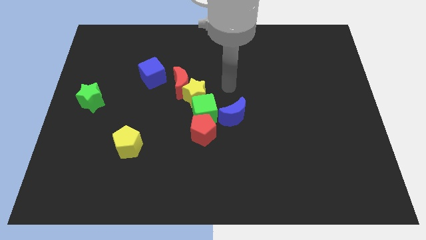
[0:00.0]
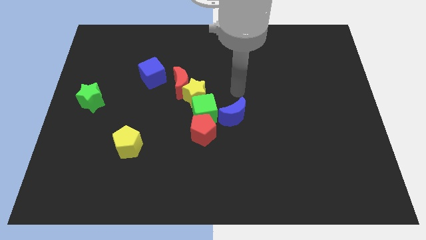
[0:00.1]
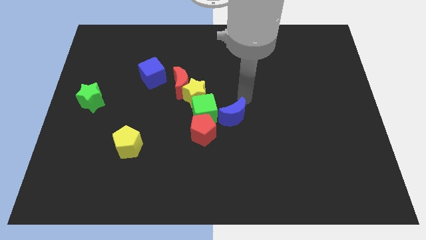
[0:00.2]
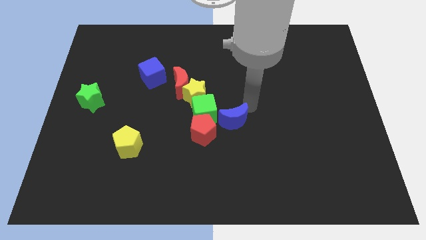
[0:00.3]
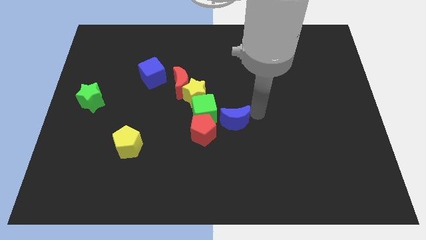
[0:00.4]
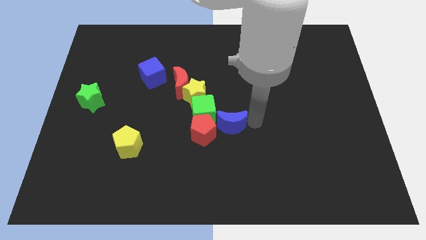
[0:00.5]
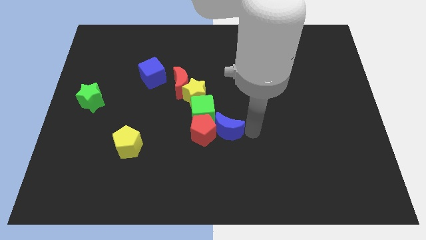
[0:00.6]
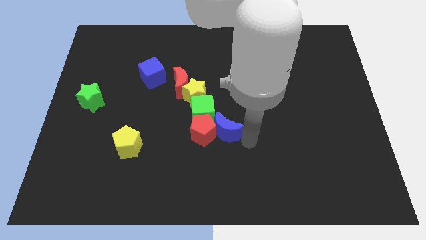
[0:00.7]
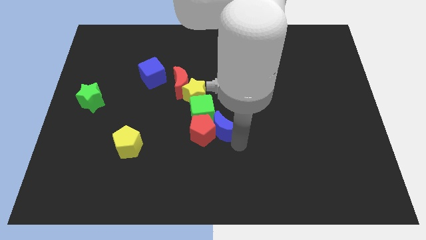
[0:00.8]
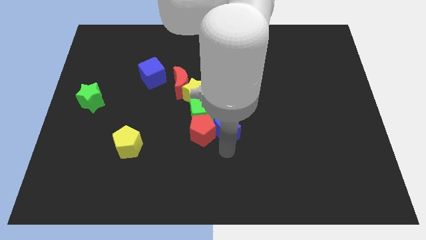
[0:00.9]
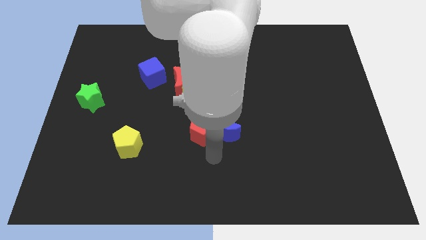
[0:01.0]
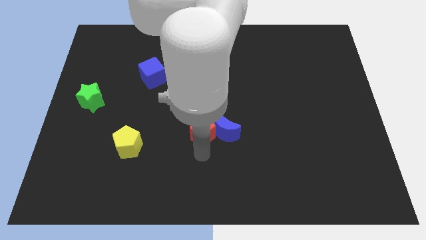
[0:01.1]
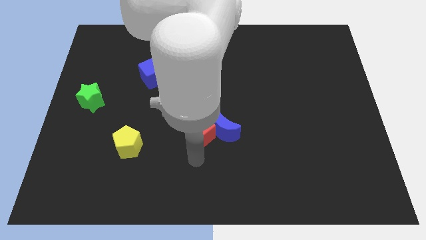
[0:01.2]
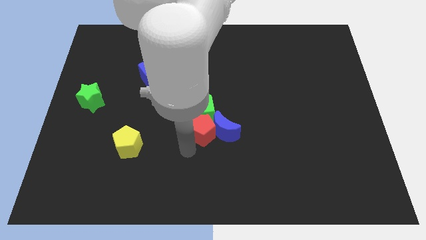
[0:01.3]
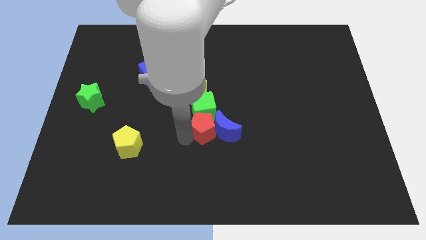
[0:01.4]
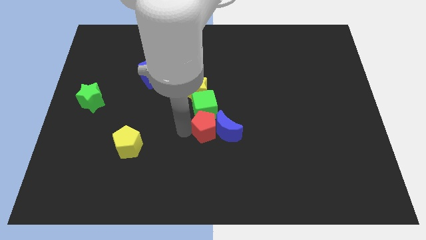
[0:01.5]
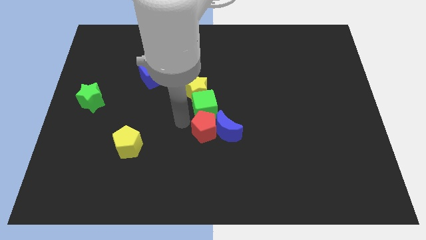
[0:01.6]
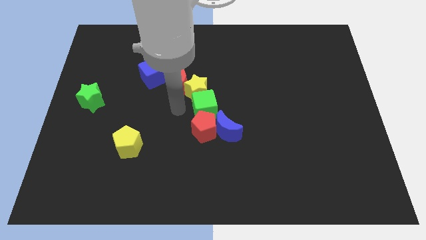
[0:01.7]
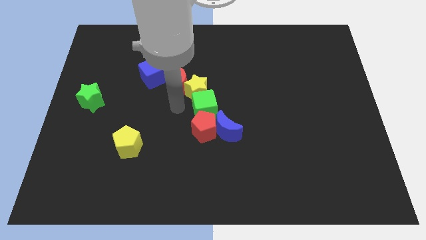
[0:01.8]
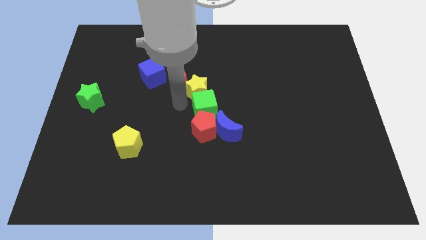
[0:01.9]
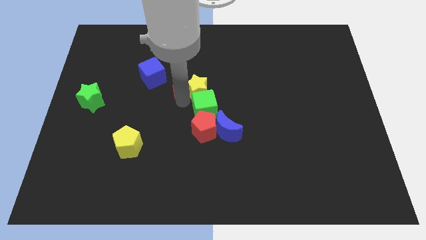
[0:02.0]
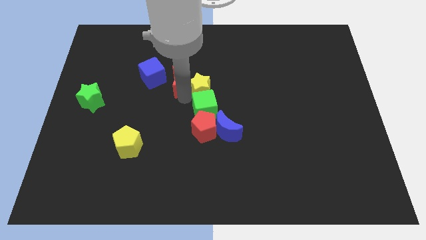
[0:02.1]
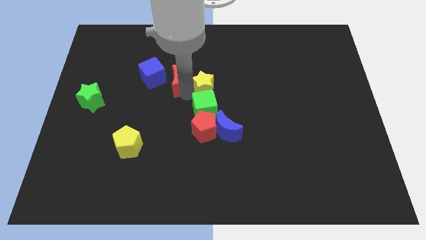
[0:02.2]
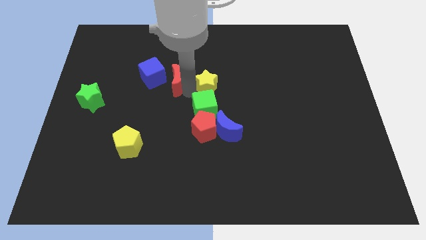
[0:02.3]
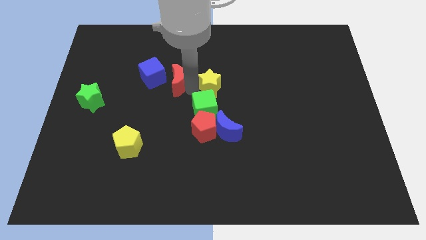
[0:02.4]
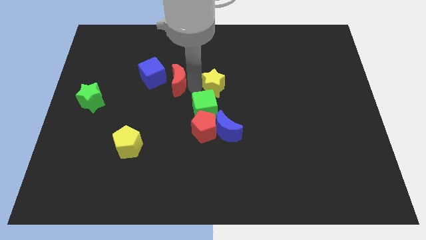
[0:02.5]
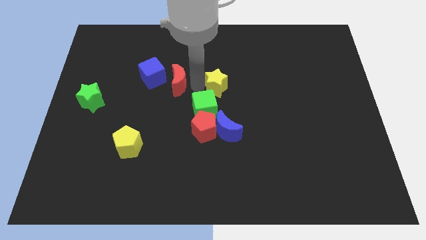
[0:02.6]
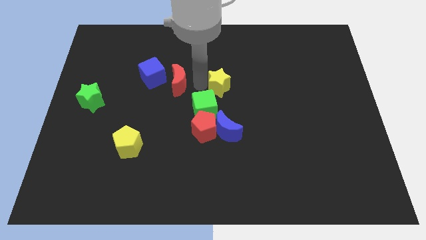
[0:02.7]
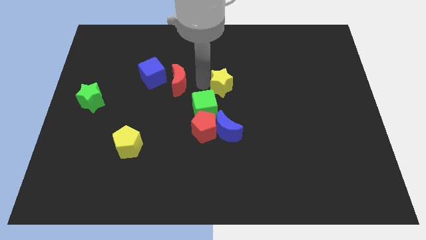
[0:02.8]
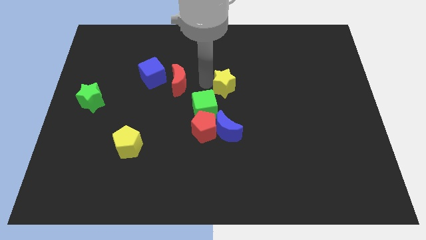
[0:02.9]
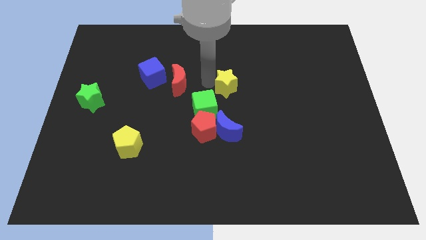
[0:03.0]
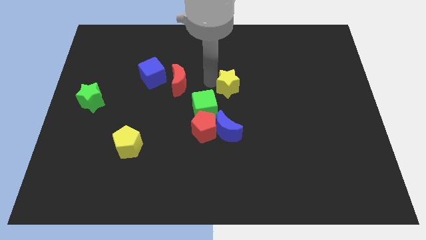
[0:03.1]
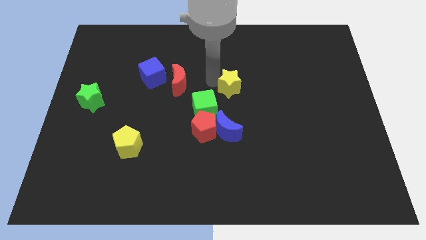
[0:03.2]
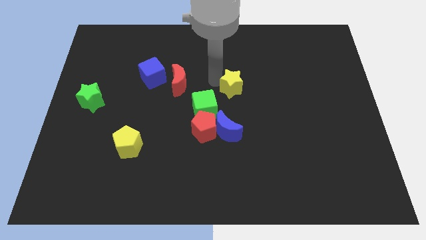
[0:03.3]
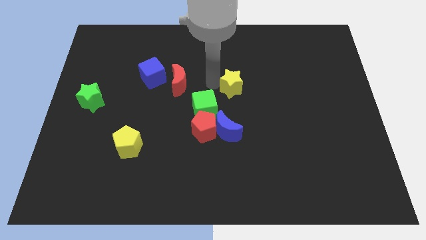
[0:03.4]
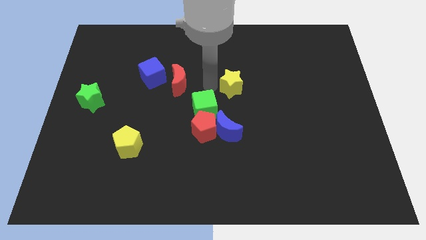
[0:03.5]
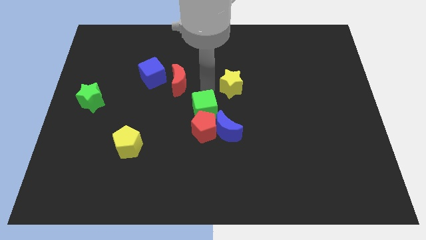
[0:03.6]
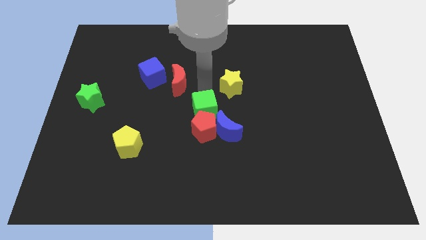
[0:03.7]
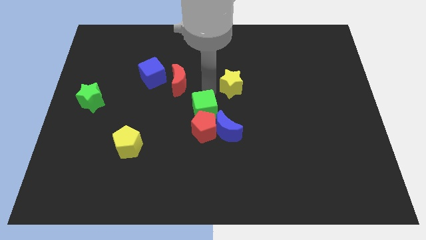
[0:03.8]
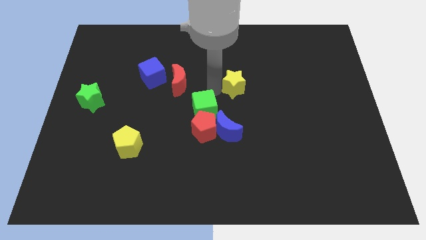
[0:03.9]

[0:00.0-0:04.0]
pull the yellow star apart from the red moon and green cube

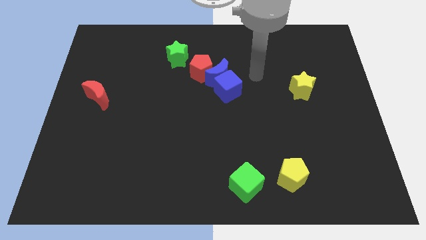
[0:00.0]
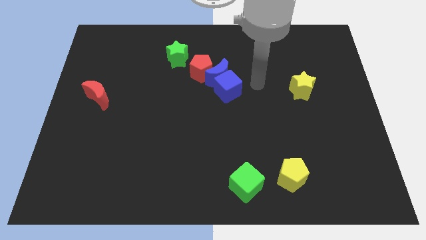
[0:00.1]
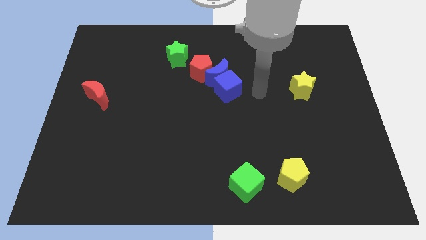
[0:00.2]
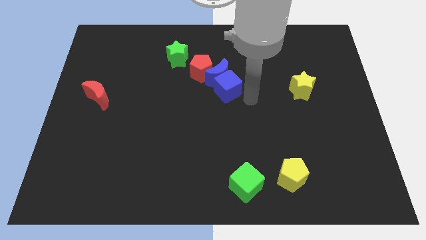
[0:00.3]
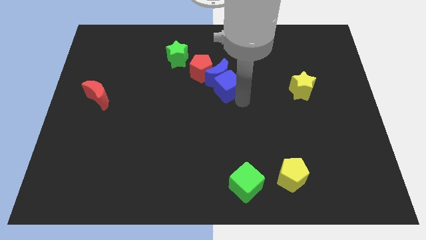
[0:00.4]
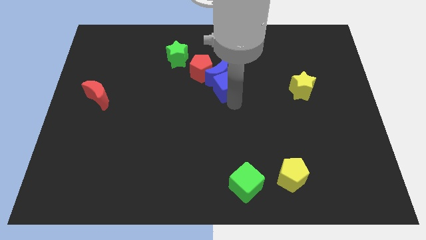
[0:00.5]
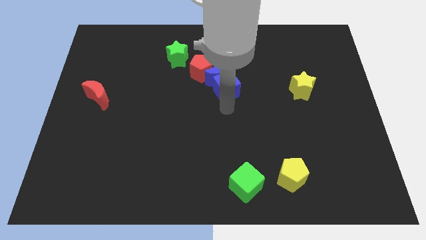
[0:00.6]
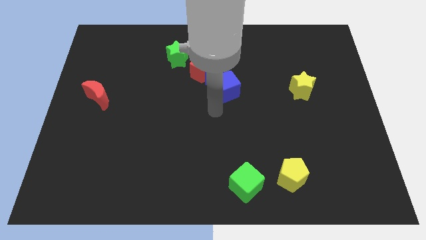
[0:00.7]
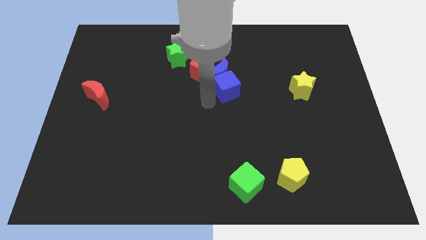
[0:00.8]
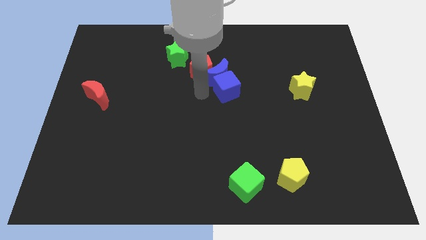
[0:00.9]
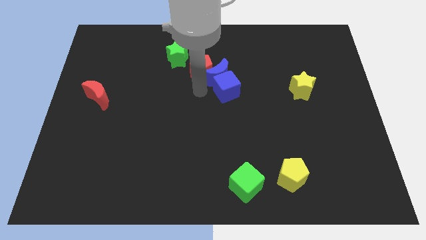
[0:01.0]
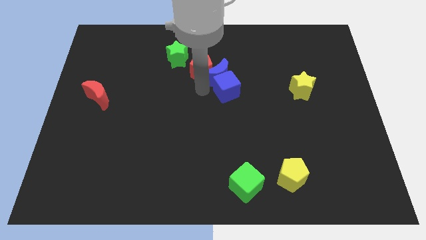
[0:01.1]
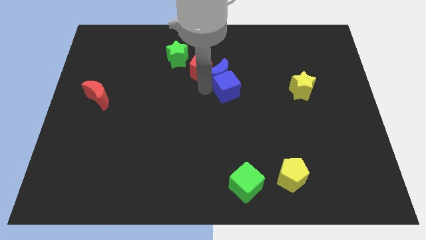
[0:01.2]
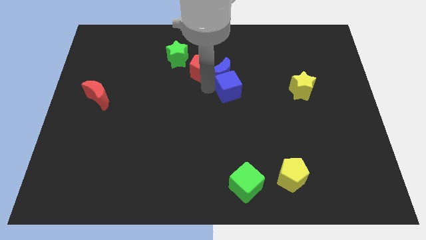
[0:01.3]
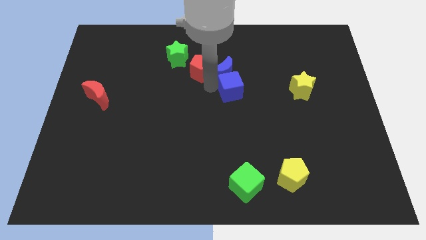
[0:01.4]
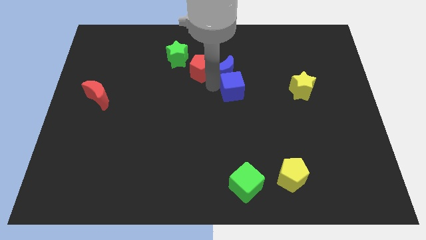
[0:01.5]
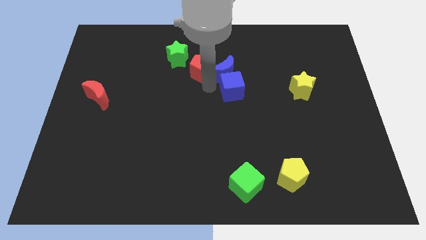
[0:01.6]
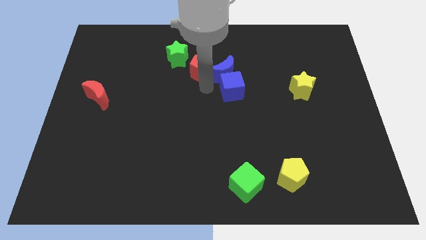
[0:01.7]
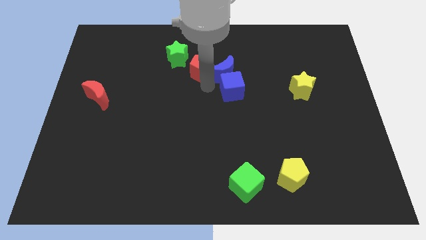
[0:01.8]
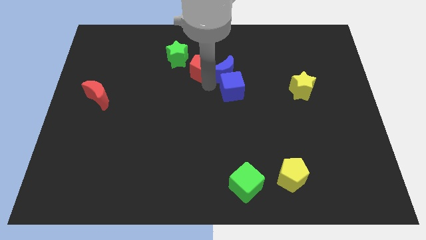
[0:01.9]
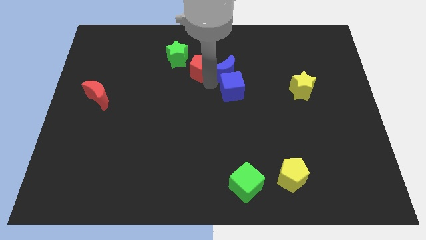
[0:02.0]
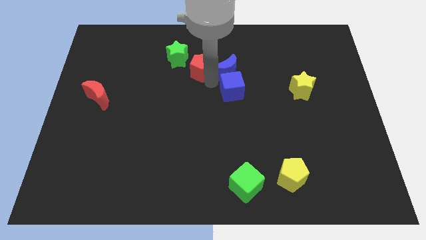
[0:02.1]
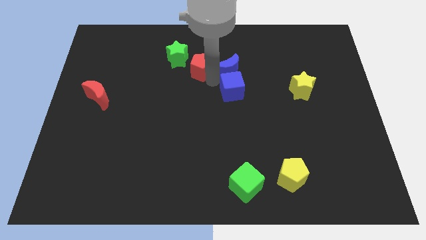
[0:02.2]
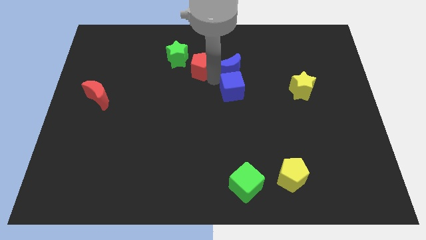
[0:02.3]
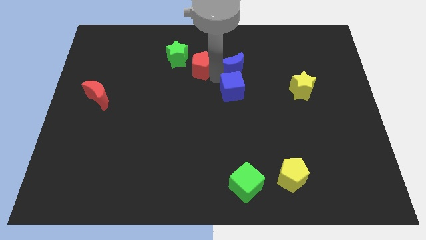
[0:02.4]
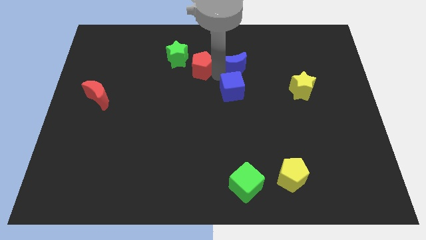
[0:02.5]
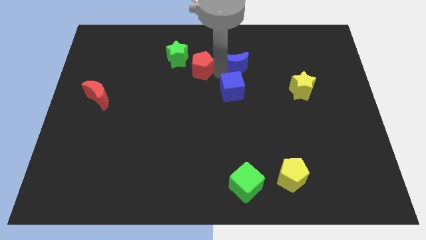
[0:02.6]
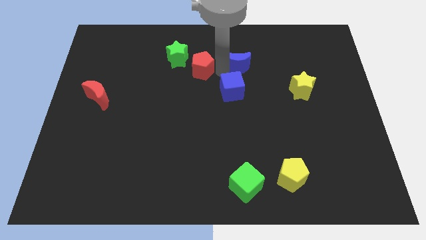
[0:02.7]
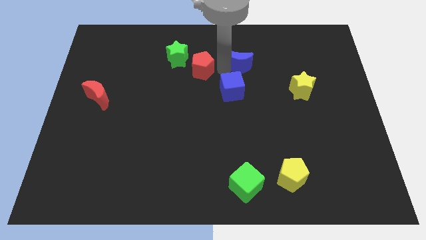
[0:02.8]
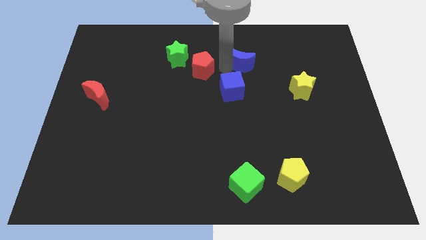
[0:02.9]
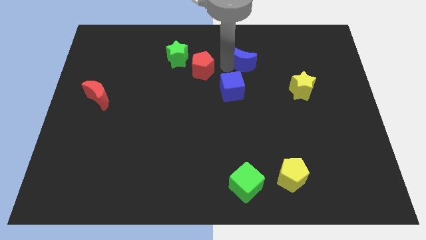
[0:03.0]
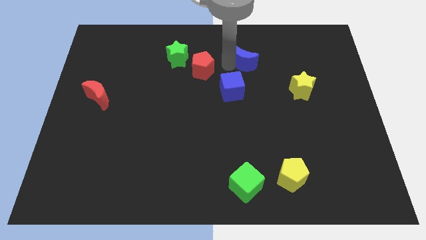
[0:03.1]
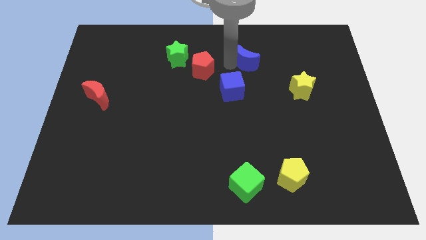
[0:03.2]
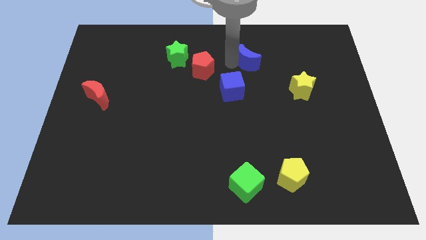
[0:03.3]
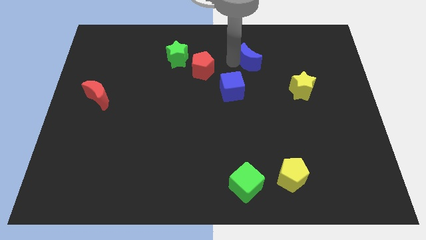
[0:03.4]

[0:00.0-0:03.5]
separate the blue moon from the blue cube and red pentagon

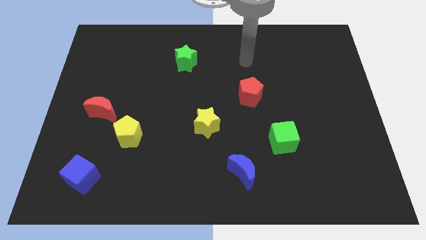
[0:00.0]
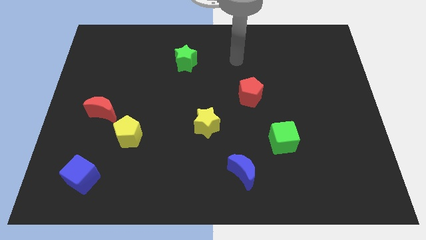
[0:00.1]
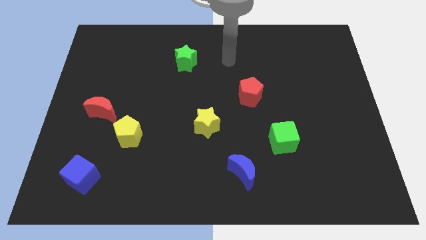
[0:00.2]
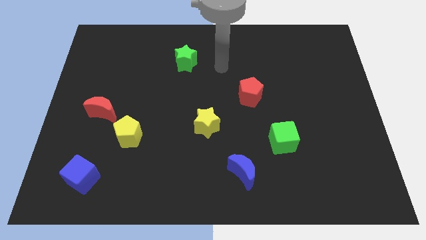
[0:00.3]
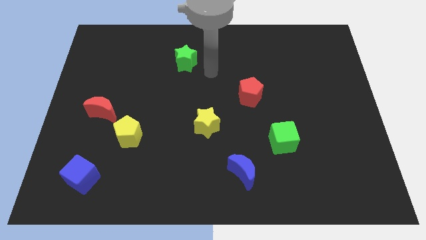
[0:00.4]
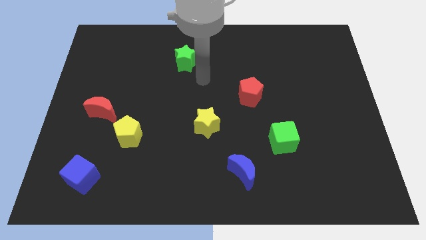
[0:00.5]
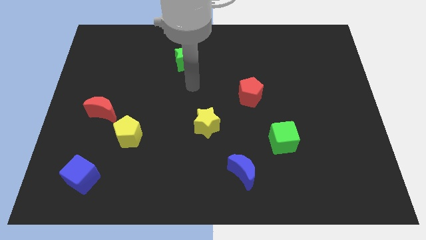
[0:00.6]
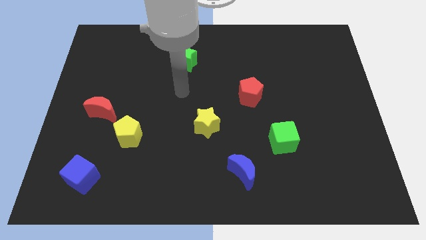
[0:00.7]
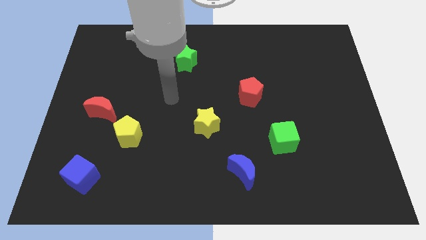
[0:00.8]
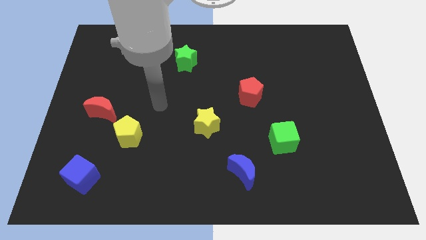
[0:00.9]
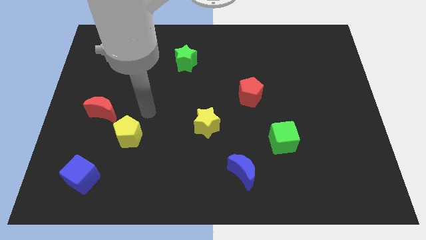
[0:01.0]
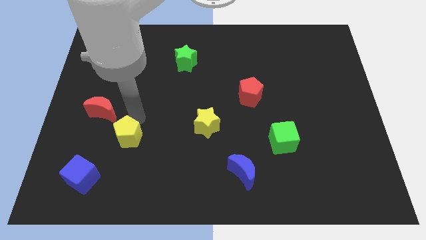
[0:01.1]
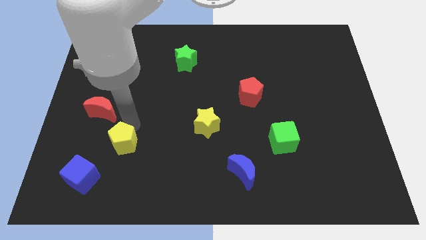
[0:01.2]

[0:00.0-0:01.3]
separate the red moon from the yellow pentagon

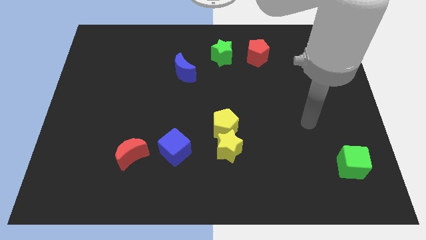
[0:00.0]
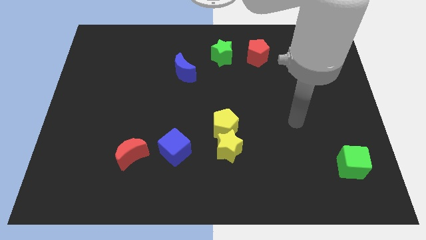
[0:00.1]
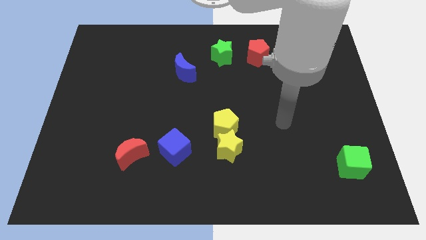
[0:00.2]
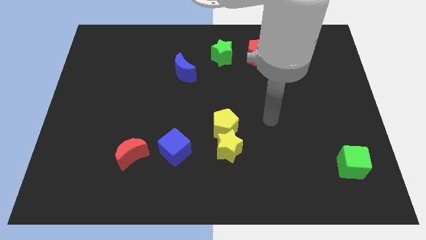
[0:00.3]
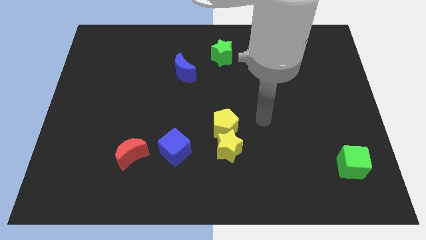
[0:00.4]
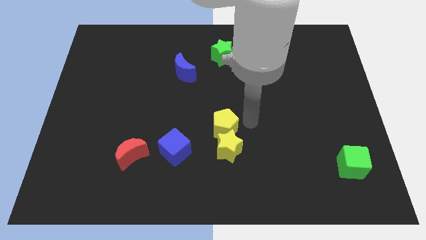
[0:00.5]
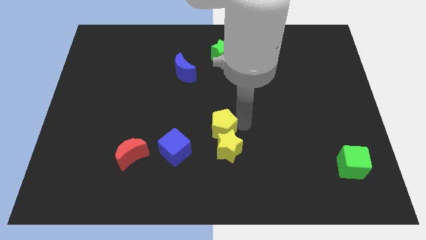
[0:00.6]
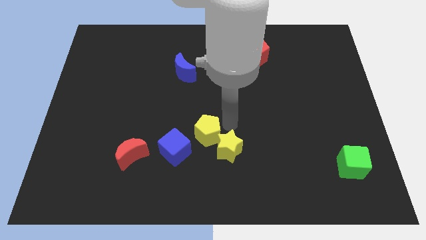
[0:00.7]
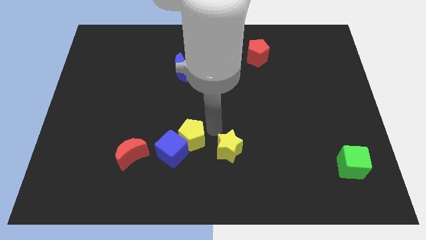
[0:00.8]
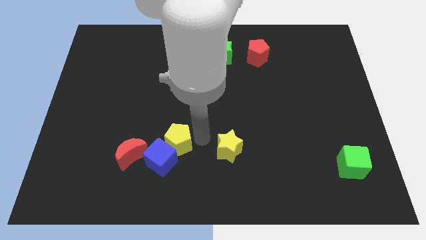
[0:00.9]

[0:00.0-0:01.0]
separate the yellow star from the yellow pentagon
